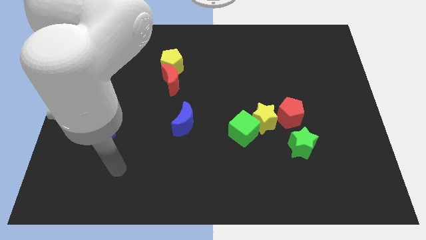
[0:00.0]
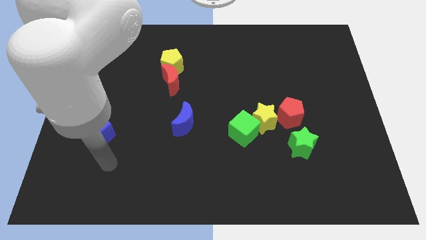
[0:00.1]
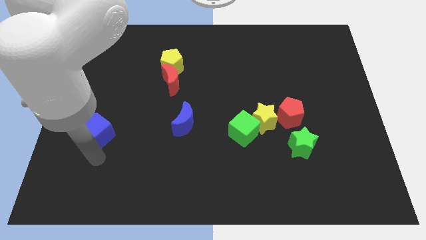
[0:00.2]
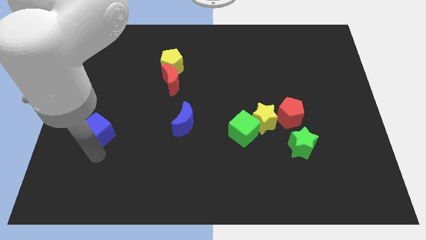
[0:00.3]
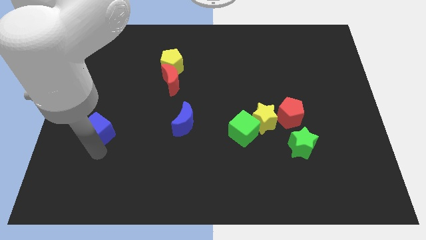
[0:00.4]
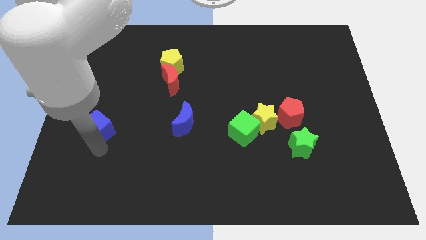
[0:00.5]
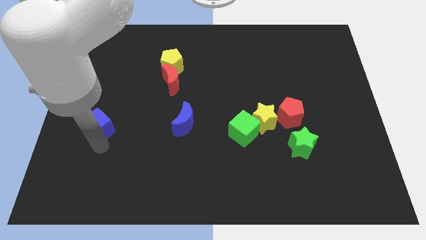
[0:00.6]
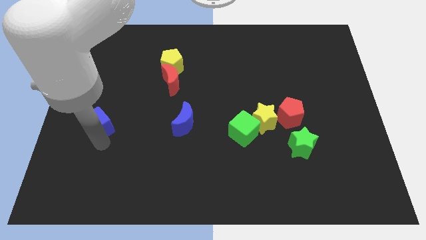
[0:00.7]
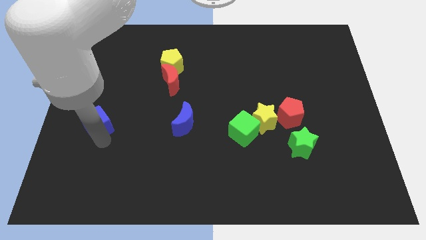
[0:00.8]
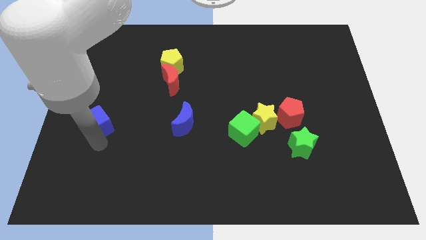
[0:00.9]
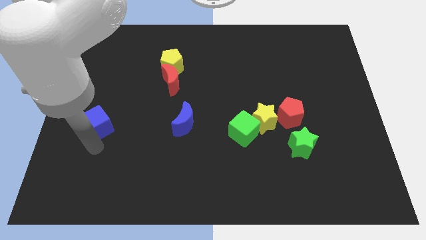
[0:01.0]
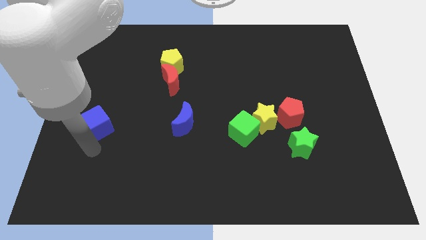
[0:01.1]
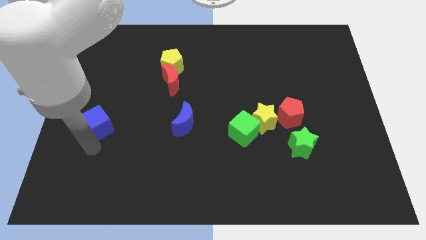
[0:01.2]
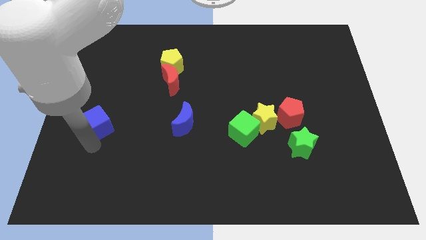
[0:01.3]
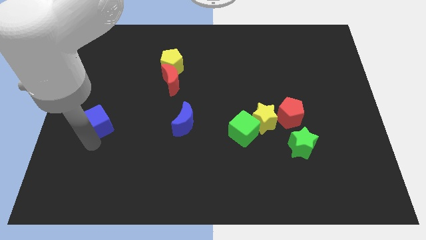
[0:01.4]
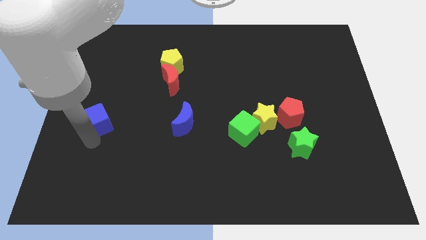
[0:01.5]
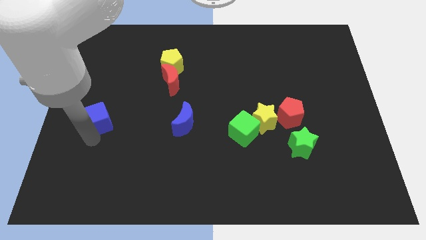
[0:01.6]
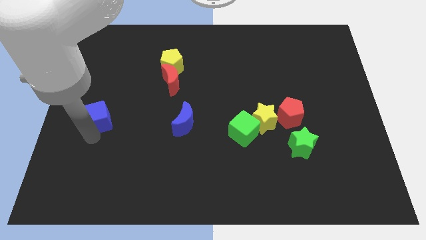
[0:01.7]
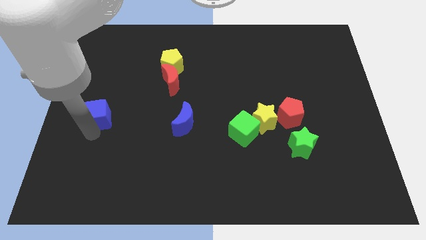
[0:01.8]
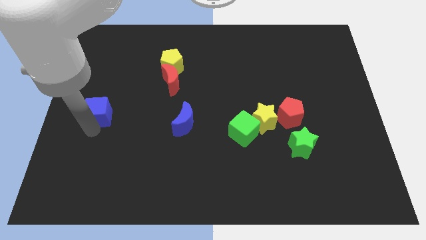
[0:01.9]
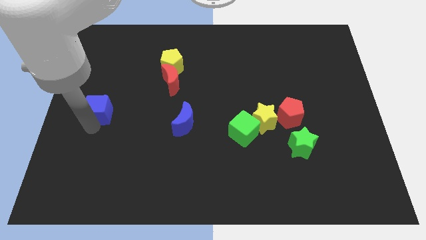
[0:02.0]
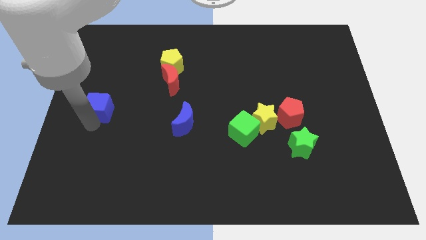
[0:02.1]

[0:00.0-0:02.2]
slightly slide the blue cube upwards

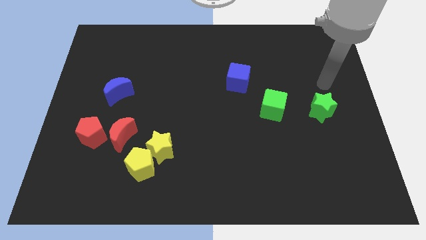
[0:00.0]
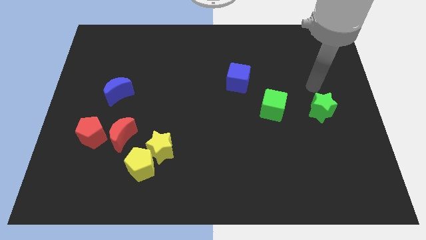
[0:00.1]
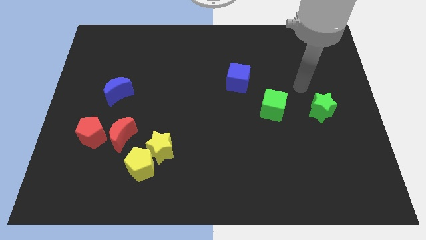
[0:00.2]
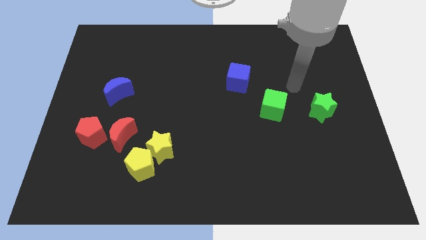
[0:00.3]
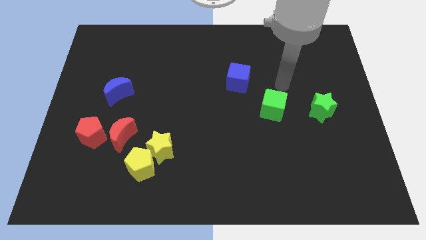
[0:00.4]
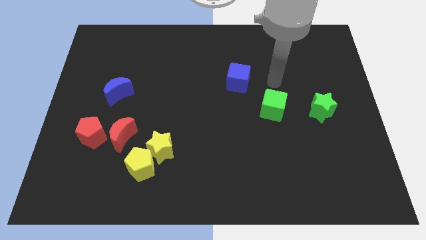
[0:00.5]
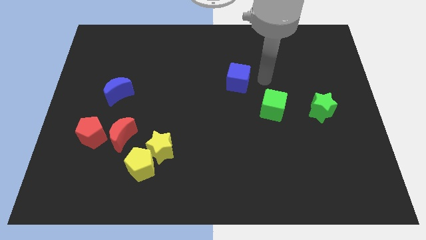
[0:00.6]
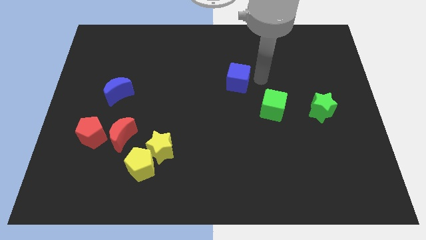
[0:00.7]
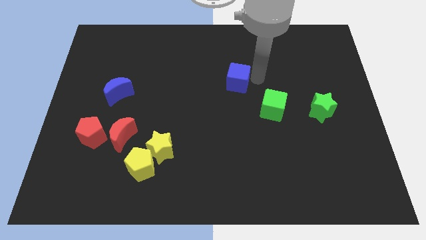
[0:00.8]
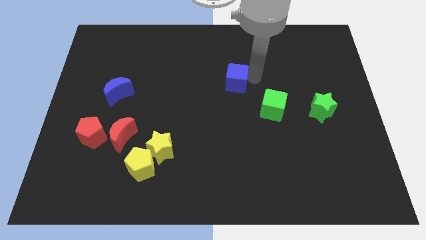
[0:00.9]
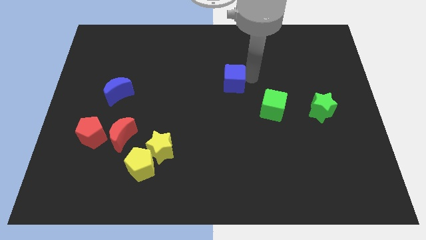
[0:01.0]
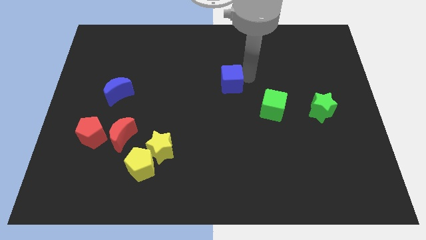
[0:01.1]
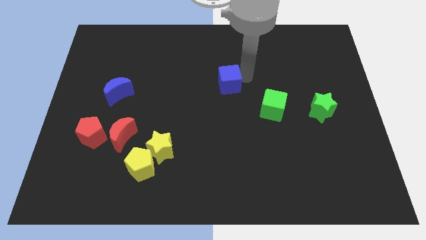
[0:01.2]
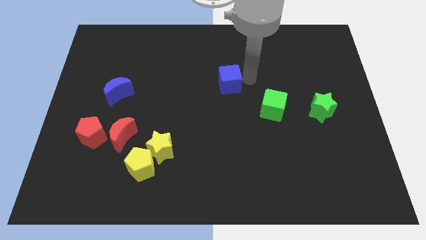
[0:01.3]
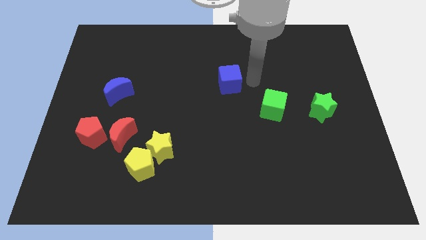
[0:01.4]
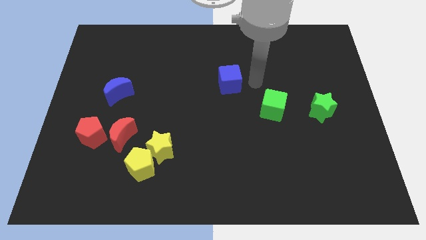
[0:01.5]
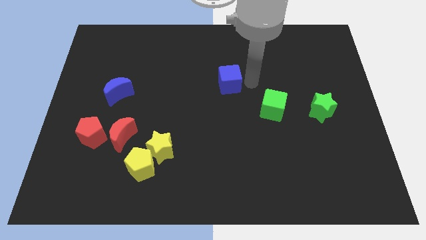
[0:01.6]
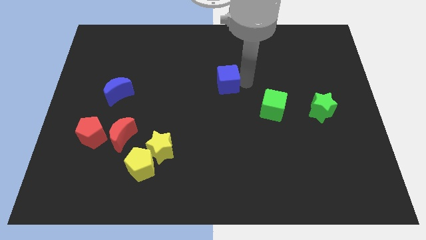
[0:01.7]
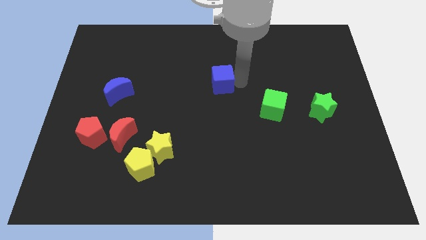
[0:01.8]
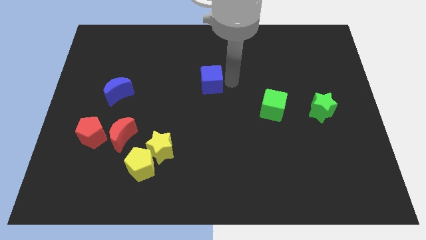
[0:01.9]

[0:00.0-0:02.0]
move the blue cube a little bit left

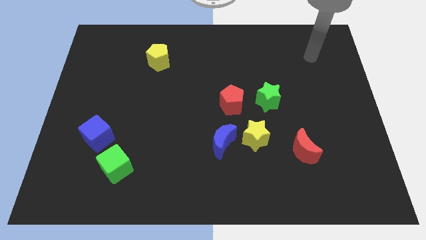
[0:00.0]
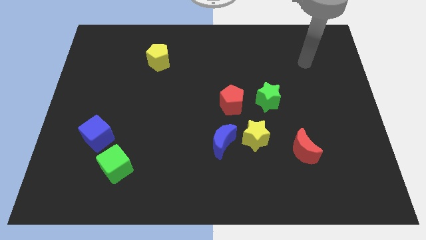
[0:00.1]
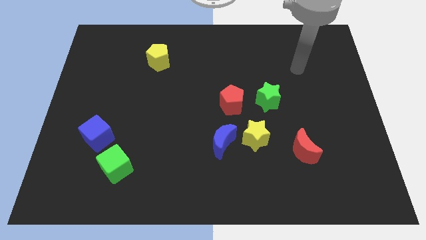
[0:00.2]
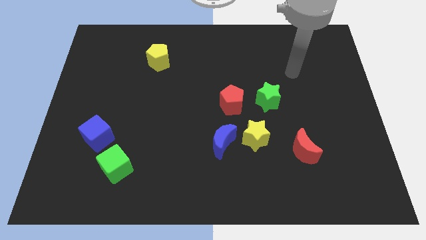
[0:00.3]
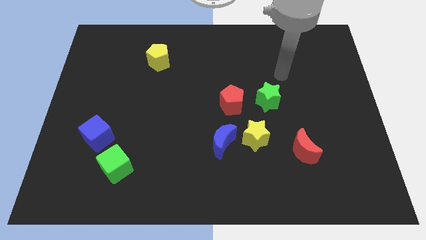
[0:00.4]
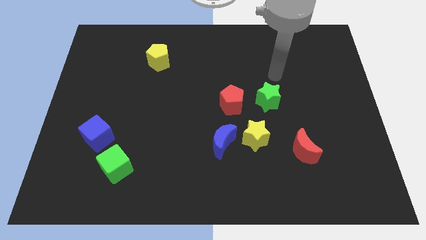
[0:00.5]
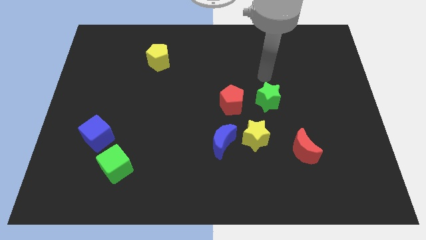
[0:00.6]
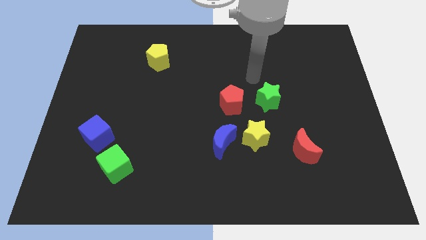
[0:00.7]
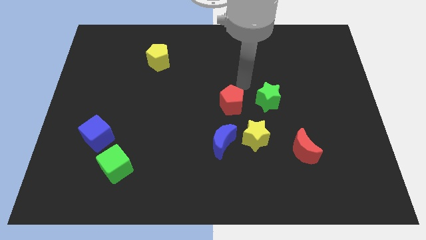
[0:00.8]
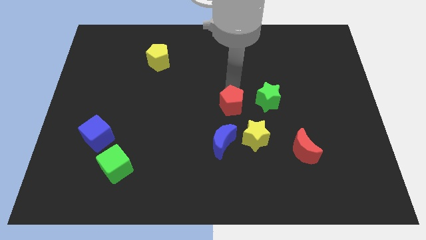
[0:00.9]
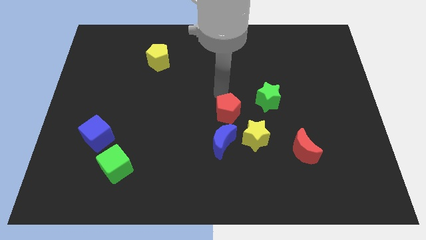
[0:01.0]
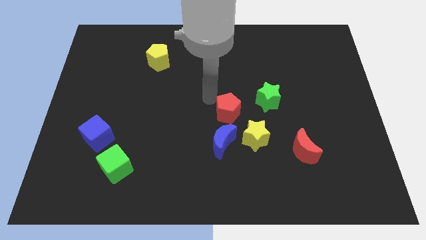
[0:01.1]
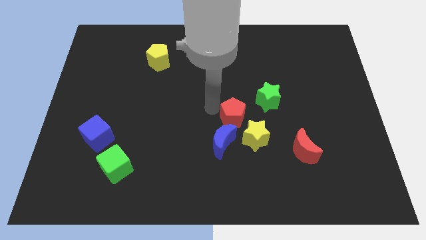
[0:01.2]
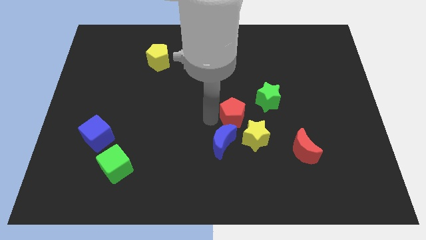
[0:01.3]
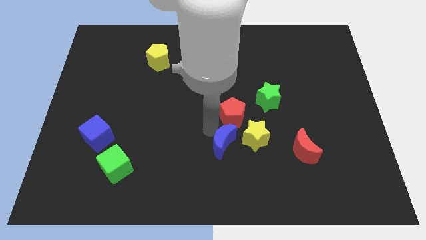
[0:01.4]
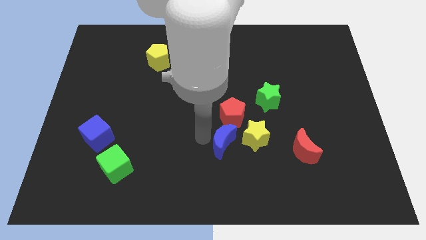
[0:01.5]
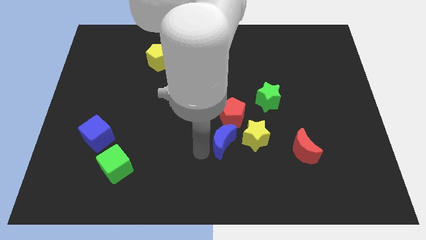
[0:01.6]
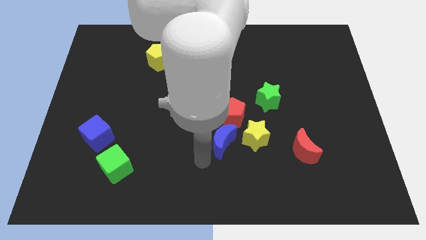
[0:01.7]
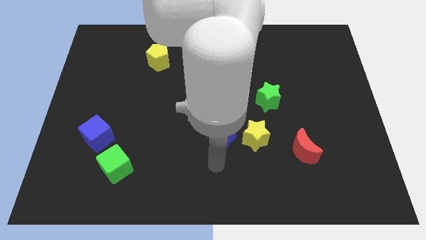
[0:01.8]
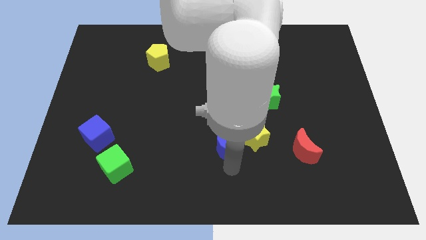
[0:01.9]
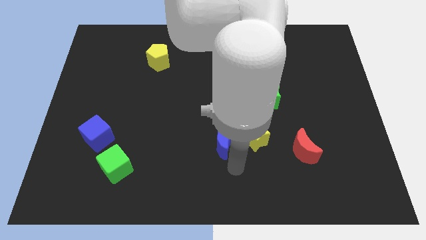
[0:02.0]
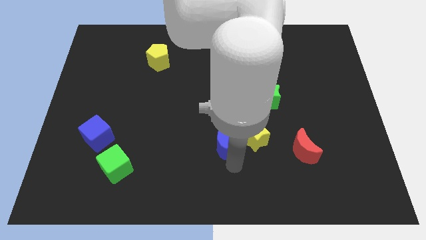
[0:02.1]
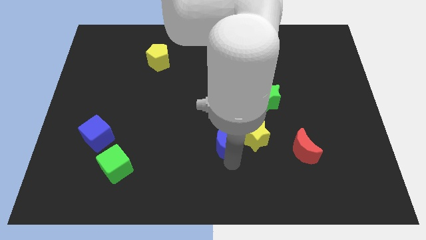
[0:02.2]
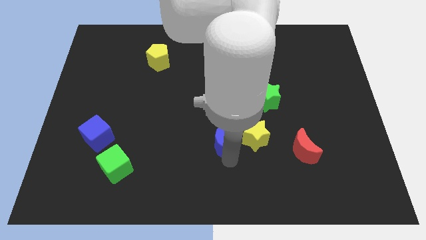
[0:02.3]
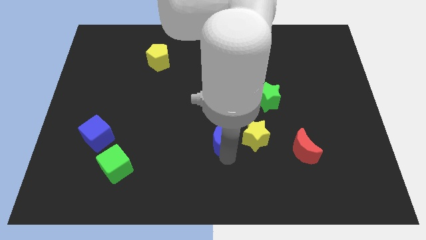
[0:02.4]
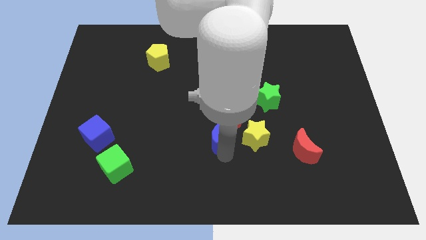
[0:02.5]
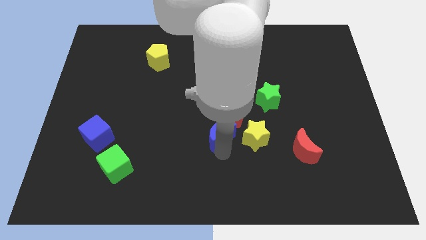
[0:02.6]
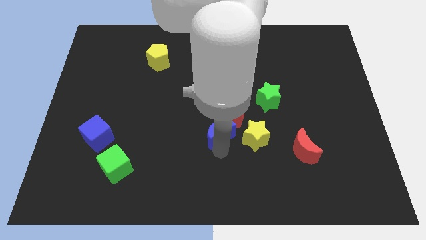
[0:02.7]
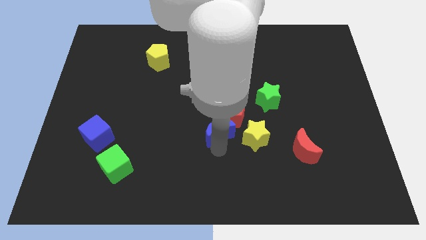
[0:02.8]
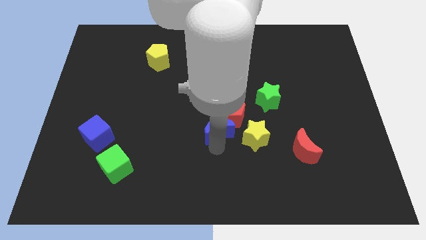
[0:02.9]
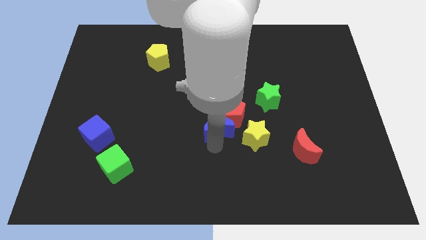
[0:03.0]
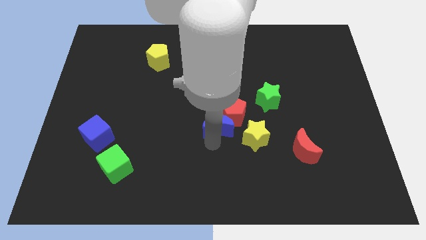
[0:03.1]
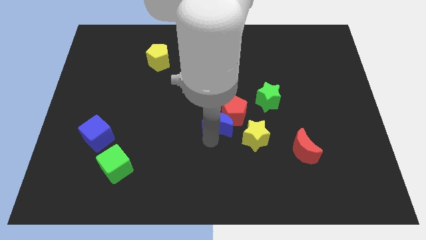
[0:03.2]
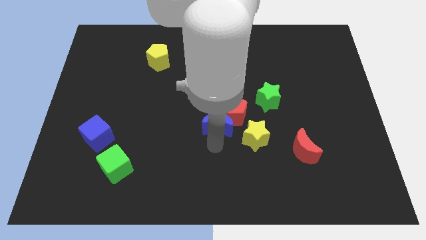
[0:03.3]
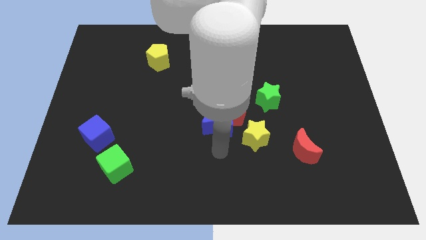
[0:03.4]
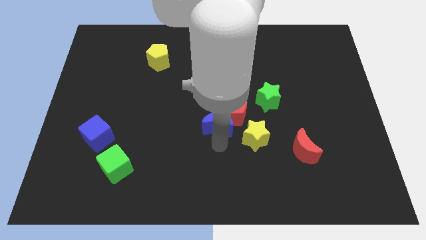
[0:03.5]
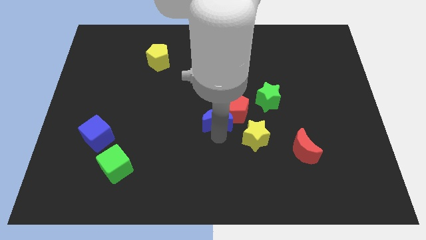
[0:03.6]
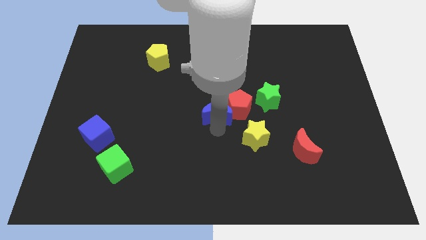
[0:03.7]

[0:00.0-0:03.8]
slide the blue moon upwards a little bit

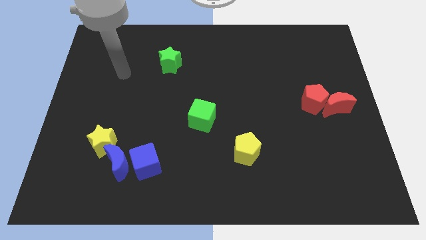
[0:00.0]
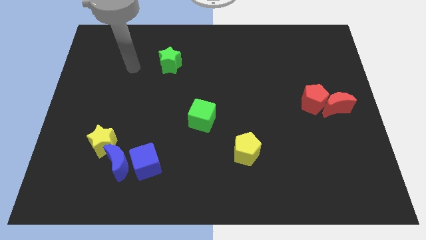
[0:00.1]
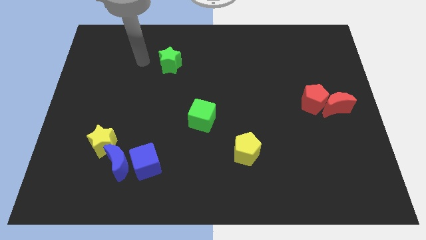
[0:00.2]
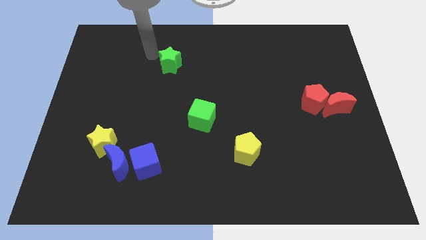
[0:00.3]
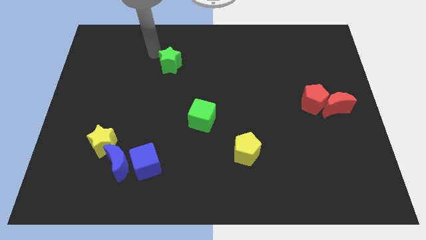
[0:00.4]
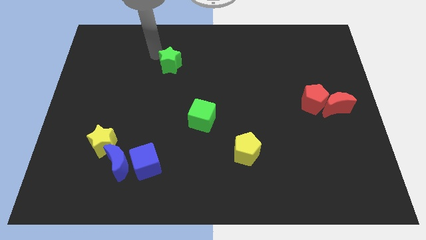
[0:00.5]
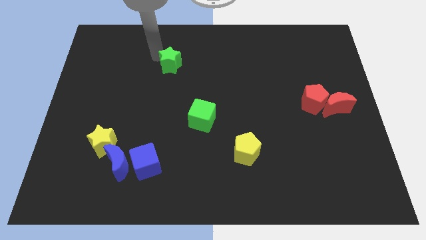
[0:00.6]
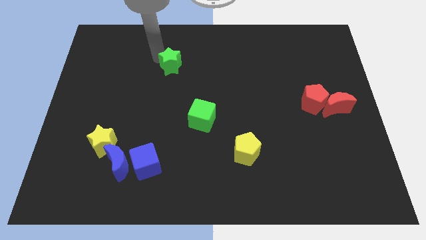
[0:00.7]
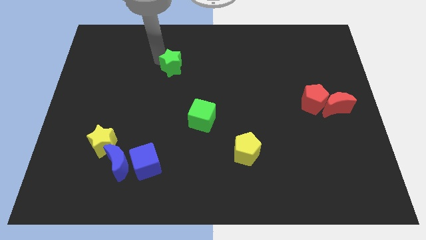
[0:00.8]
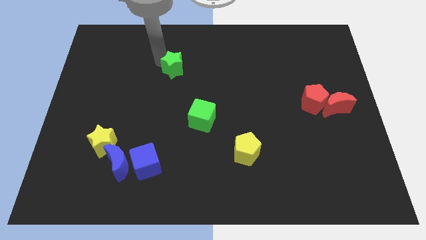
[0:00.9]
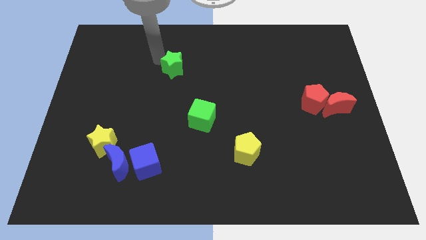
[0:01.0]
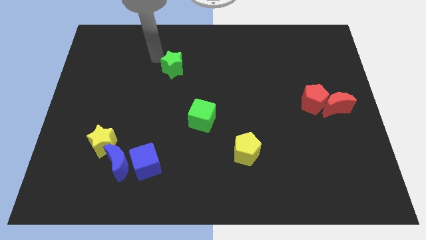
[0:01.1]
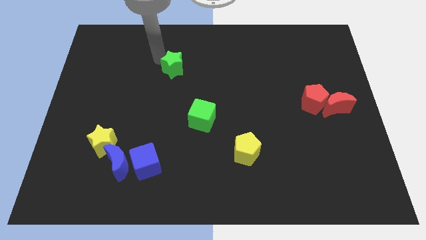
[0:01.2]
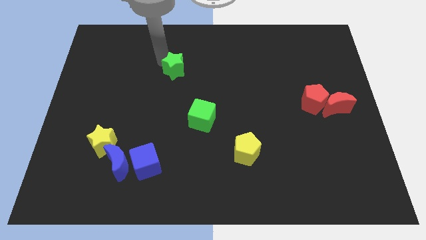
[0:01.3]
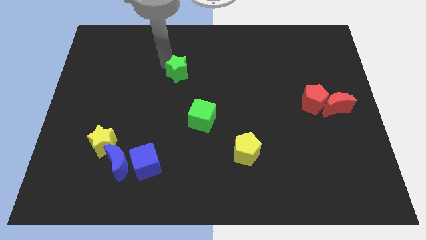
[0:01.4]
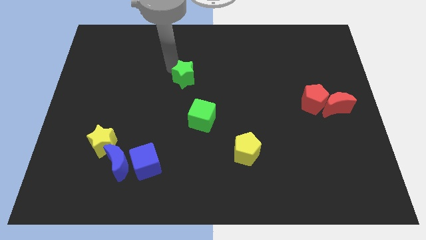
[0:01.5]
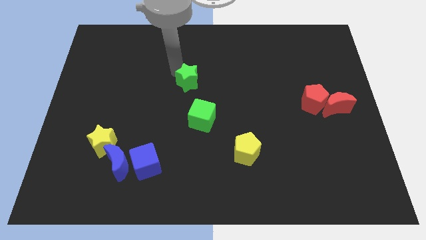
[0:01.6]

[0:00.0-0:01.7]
push the green star downwards and to the right diagonally slightly
